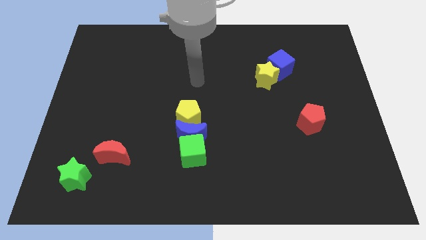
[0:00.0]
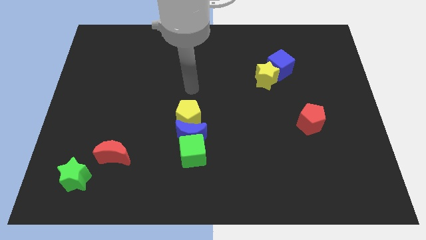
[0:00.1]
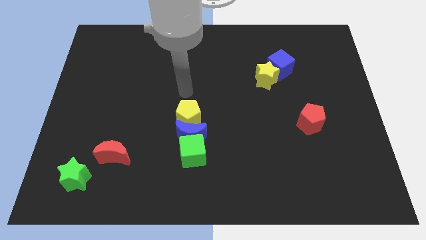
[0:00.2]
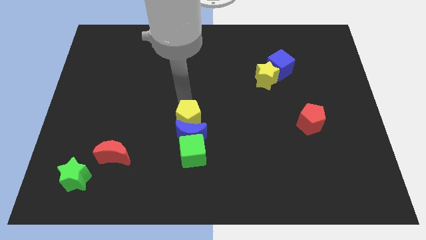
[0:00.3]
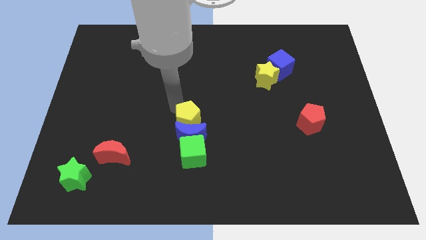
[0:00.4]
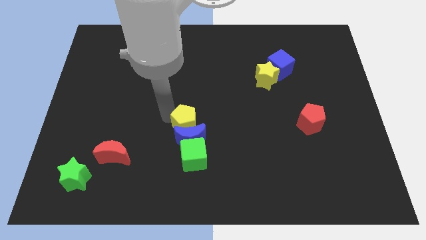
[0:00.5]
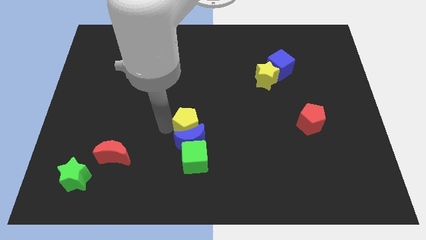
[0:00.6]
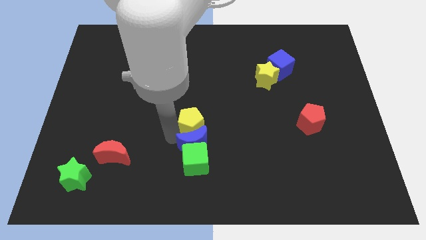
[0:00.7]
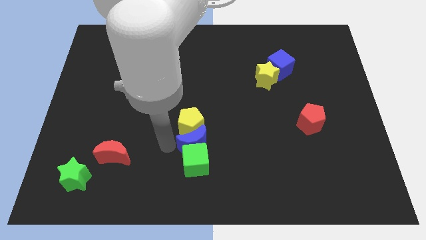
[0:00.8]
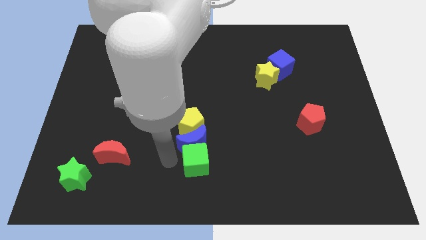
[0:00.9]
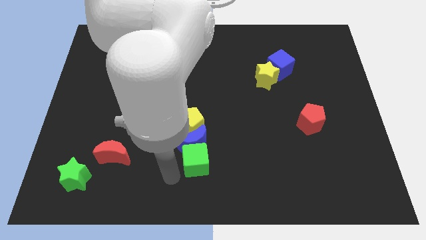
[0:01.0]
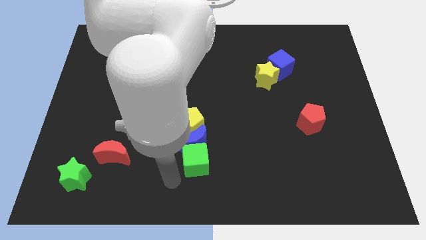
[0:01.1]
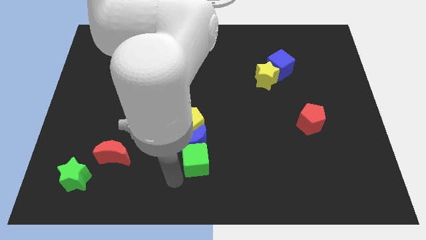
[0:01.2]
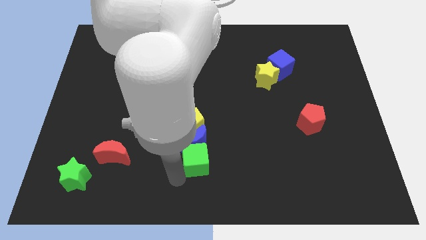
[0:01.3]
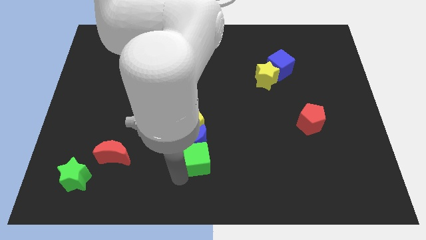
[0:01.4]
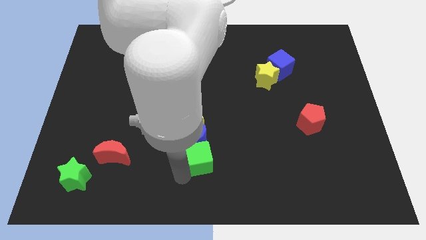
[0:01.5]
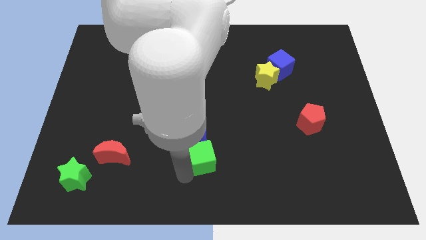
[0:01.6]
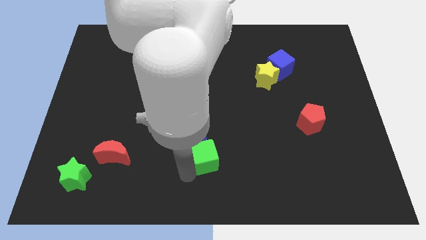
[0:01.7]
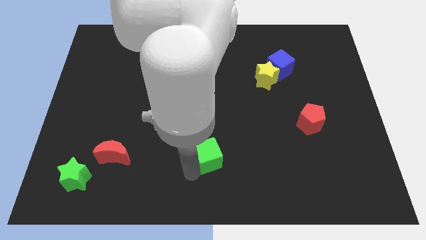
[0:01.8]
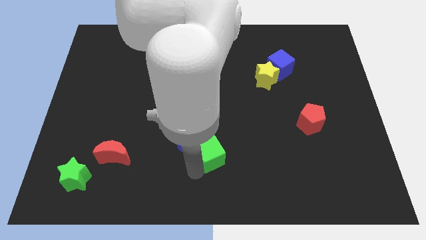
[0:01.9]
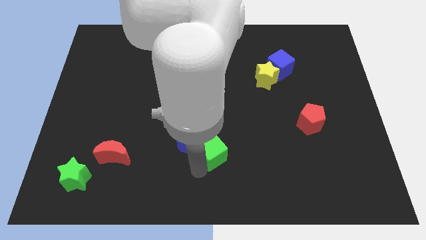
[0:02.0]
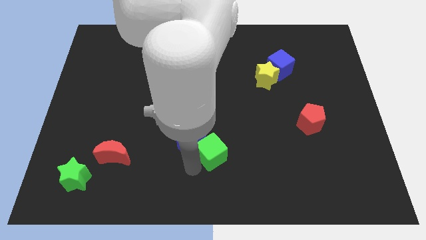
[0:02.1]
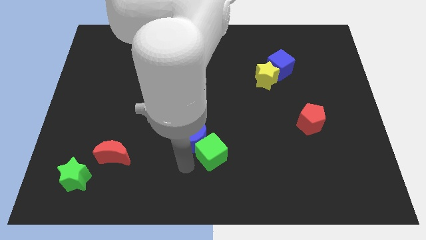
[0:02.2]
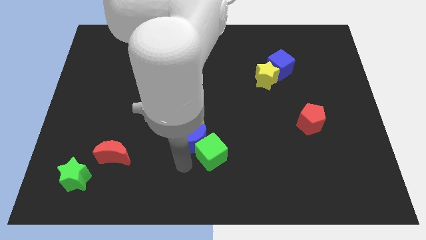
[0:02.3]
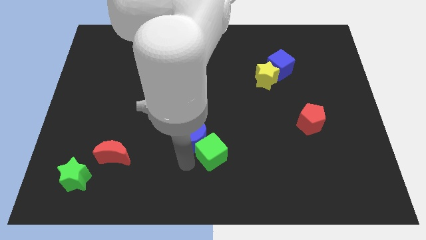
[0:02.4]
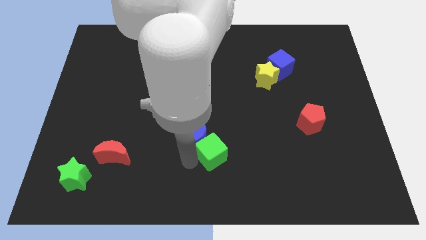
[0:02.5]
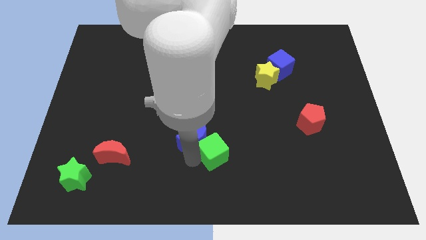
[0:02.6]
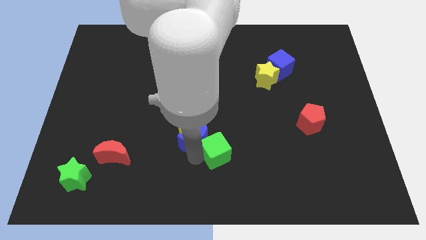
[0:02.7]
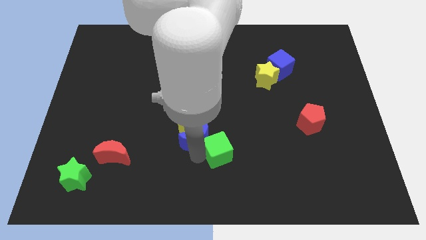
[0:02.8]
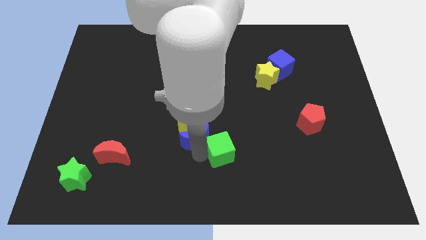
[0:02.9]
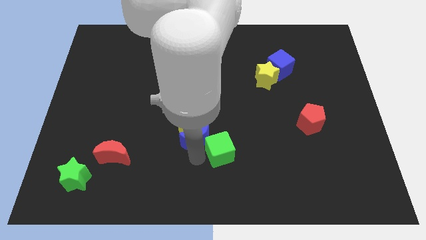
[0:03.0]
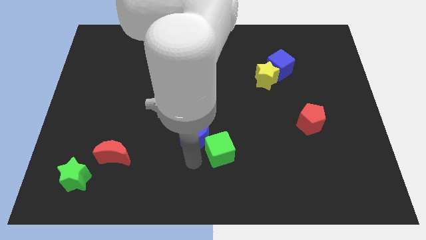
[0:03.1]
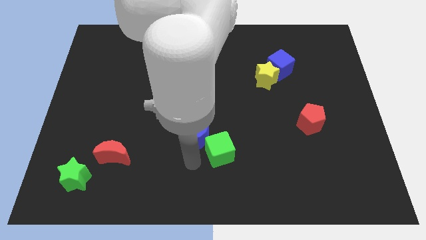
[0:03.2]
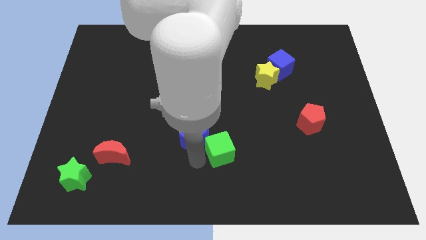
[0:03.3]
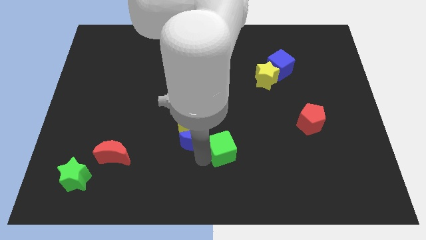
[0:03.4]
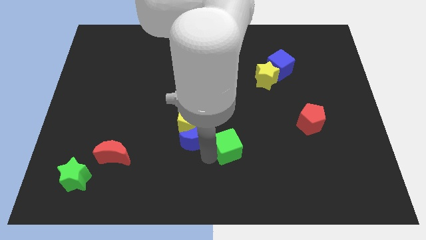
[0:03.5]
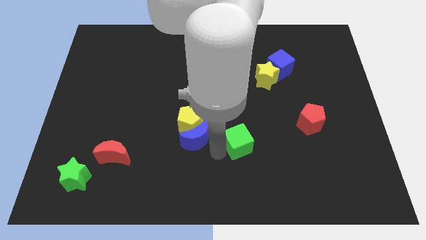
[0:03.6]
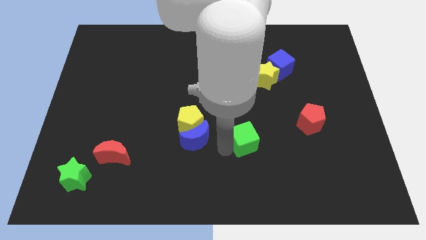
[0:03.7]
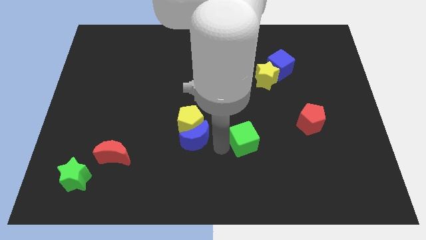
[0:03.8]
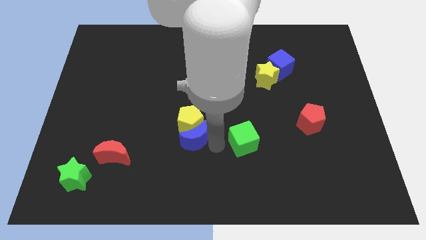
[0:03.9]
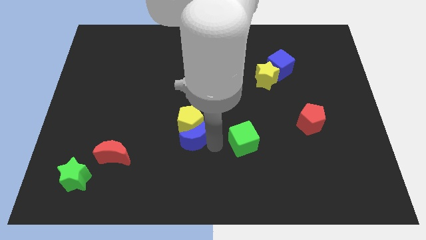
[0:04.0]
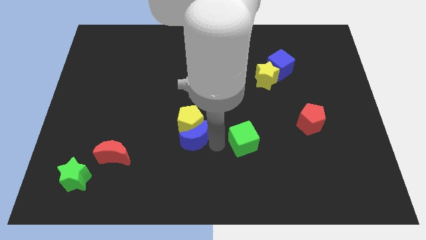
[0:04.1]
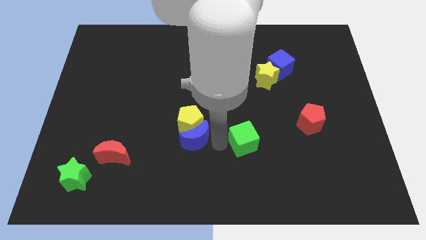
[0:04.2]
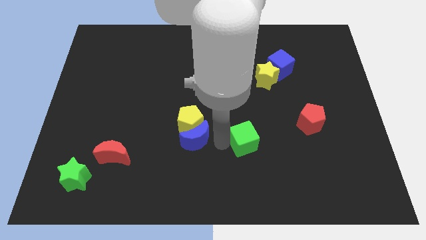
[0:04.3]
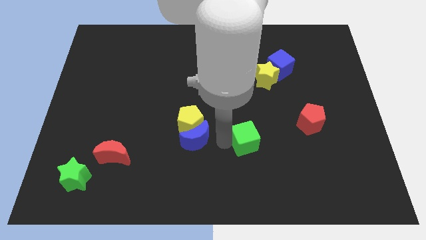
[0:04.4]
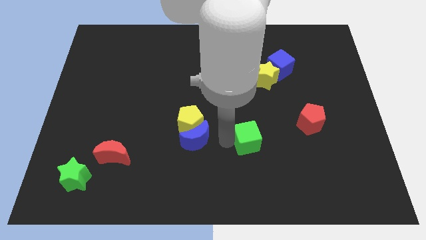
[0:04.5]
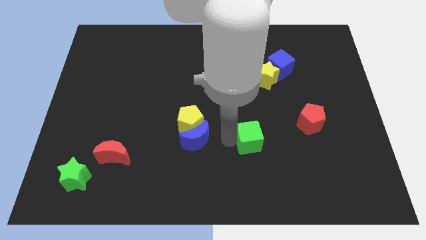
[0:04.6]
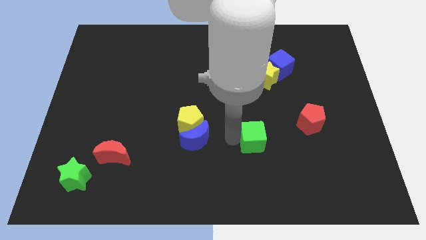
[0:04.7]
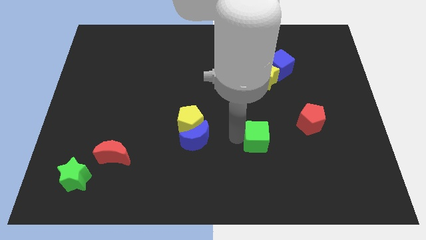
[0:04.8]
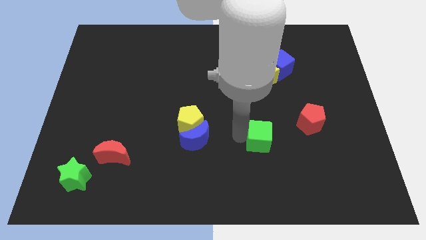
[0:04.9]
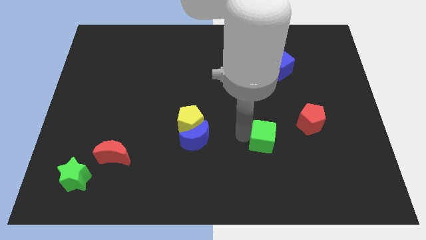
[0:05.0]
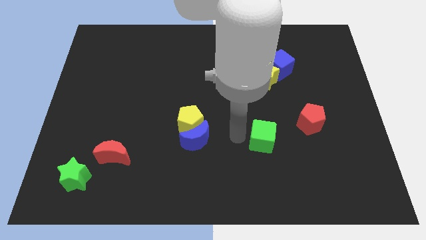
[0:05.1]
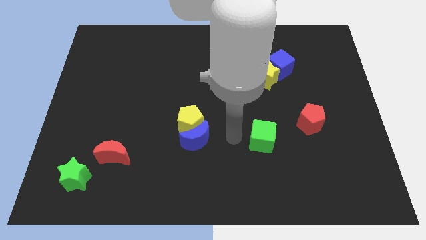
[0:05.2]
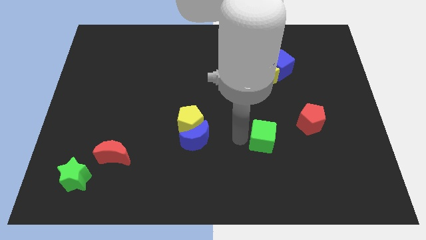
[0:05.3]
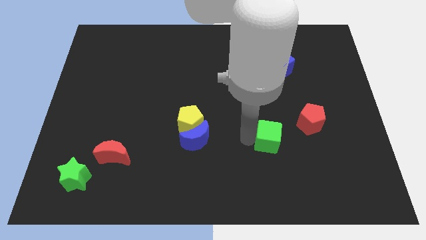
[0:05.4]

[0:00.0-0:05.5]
move the green cube to the bottom left of the red pentagon

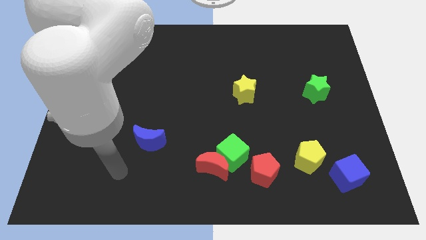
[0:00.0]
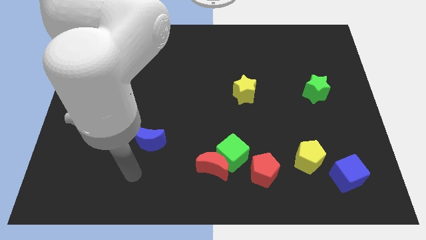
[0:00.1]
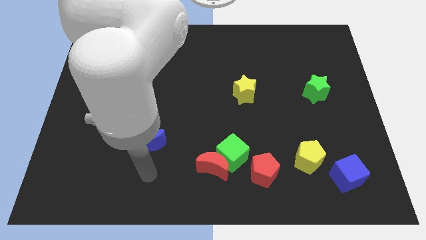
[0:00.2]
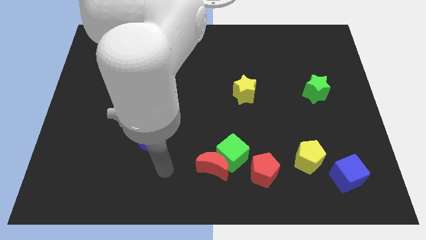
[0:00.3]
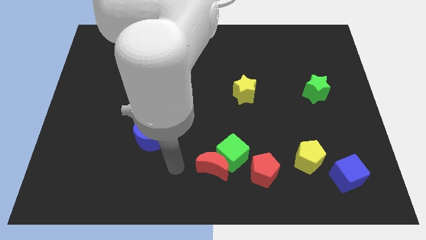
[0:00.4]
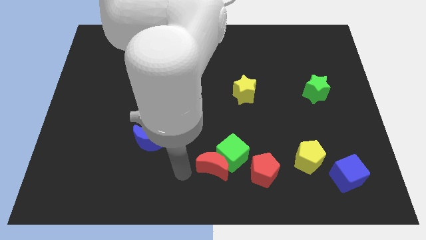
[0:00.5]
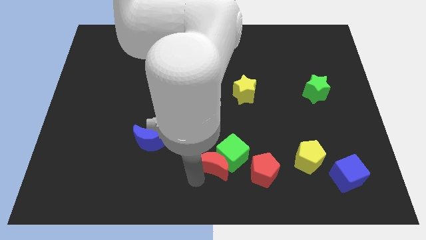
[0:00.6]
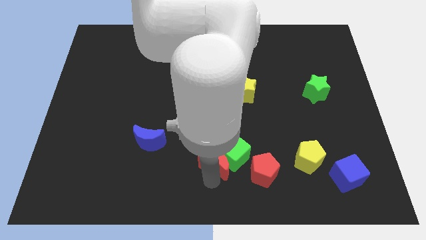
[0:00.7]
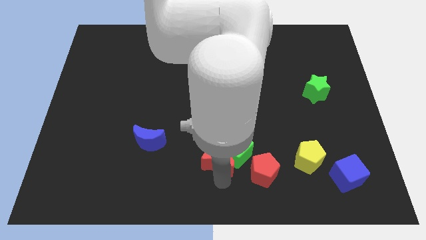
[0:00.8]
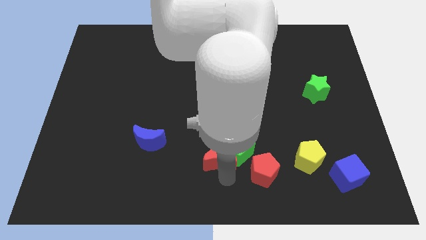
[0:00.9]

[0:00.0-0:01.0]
put the green cube to the bottom side of the yellow star
